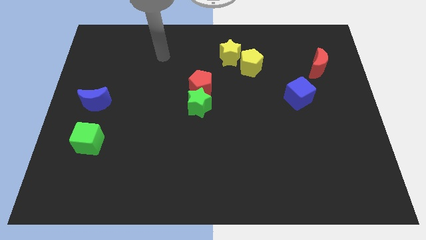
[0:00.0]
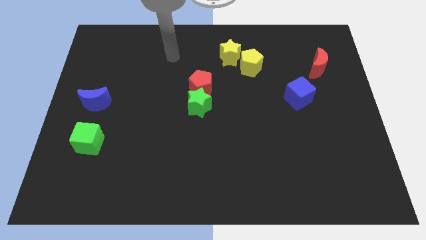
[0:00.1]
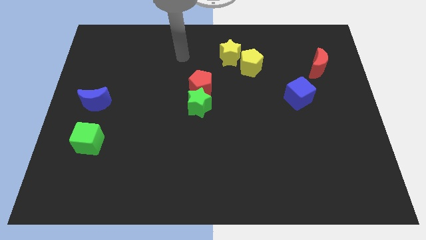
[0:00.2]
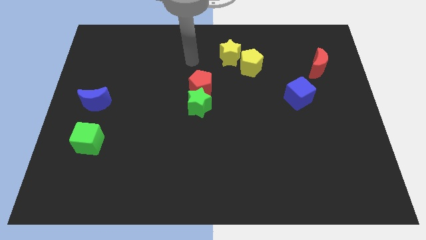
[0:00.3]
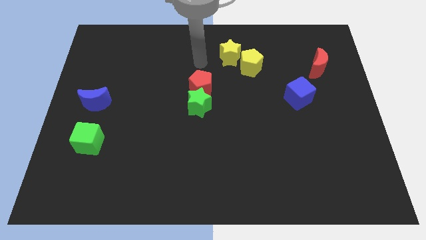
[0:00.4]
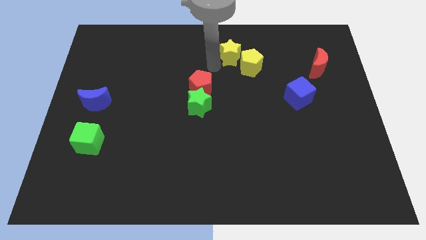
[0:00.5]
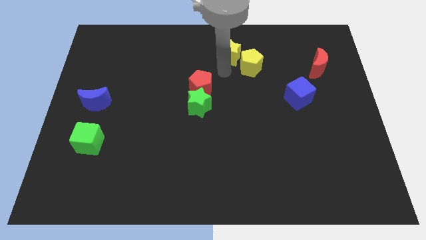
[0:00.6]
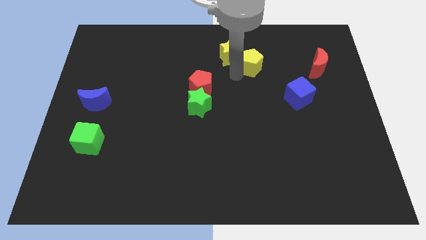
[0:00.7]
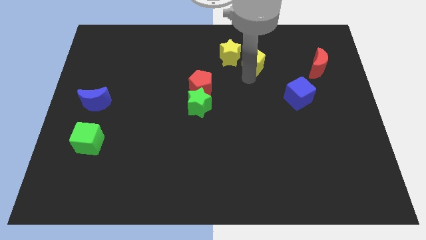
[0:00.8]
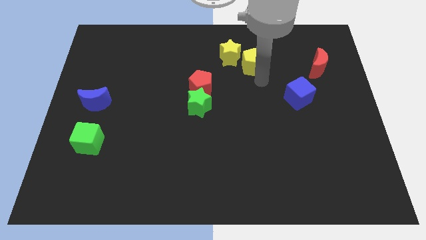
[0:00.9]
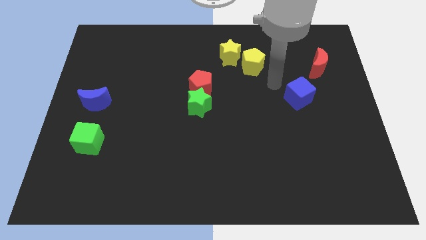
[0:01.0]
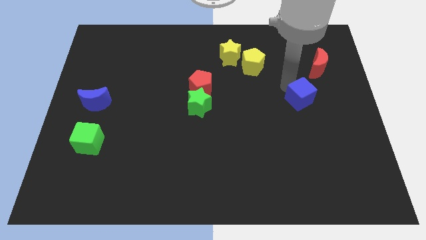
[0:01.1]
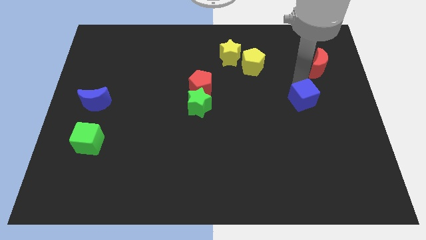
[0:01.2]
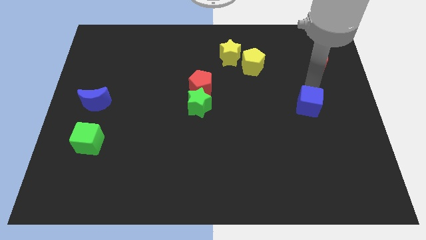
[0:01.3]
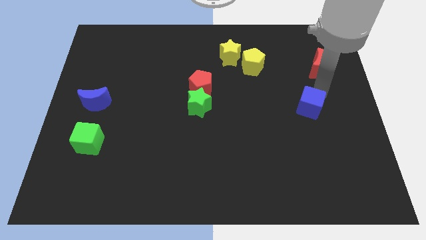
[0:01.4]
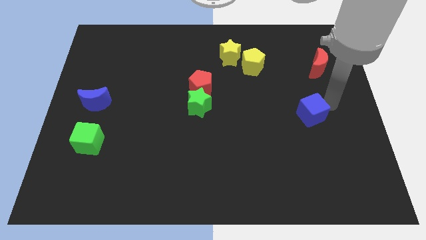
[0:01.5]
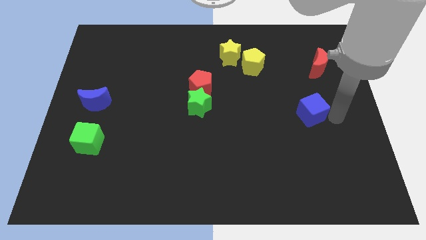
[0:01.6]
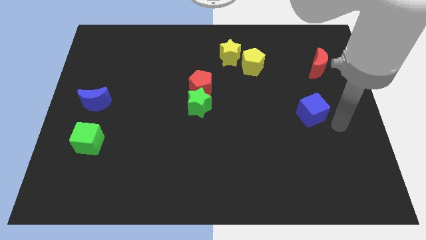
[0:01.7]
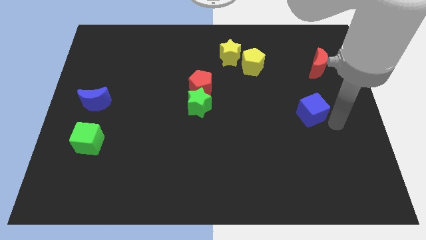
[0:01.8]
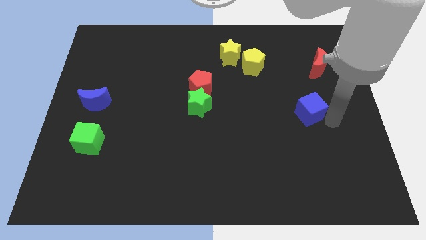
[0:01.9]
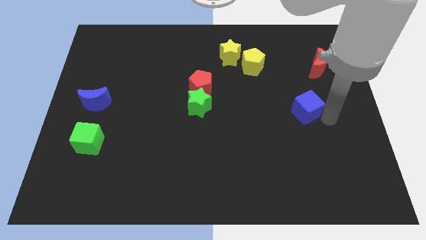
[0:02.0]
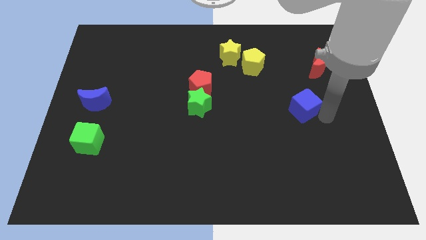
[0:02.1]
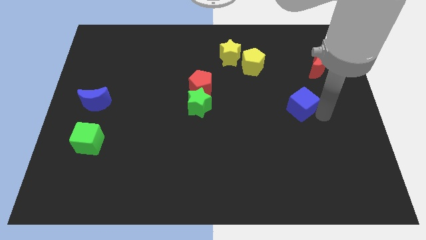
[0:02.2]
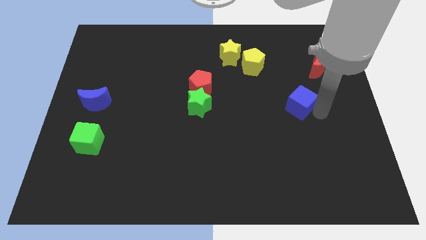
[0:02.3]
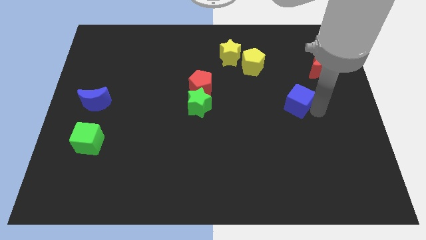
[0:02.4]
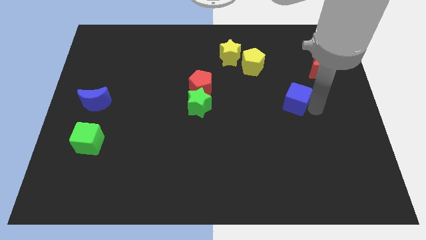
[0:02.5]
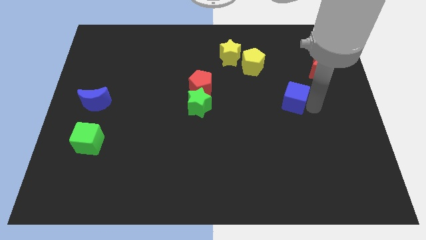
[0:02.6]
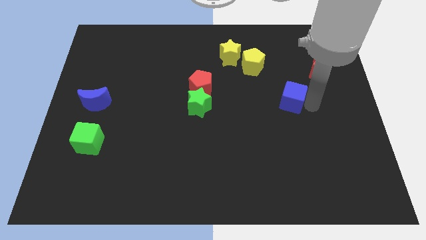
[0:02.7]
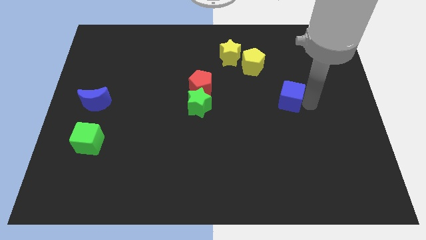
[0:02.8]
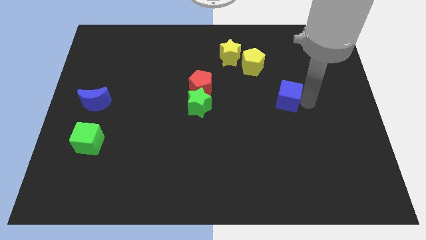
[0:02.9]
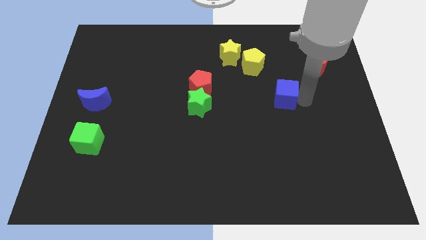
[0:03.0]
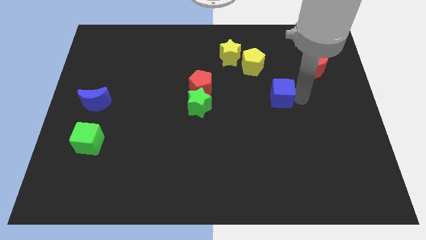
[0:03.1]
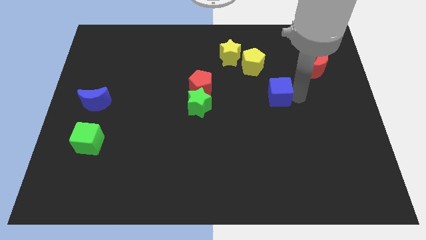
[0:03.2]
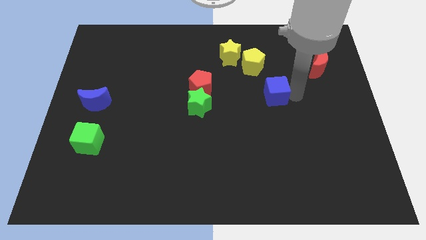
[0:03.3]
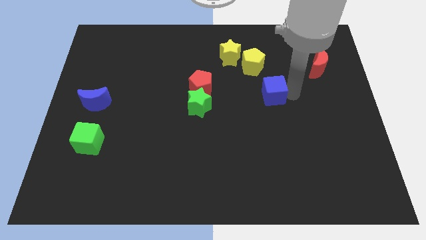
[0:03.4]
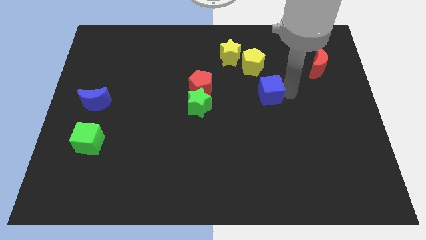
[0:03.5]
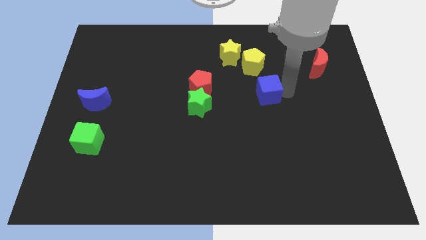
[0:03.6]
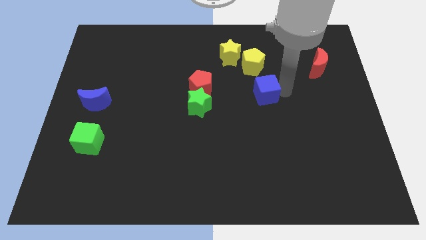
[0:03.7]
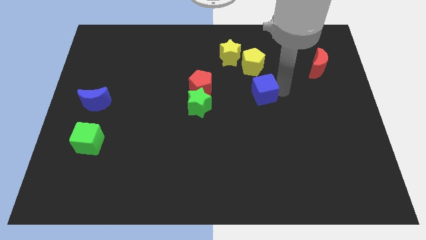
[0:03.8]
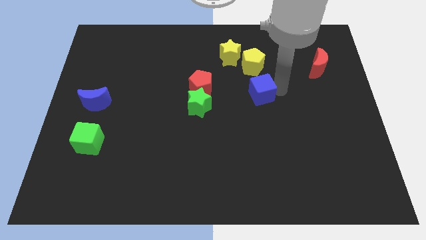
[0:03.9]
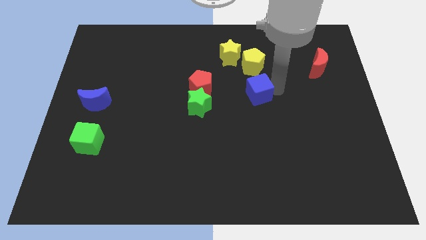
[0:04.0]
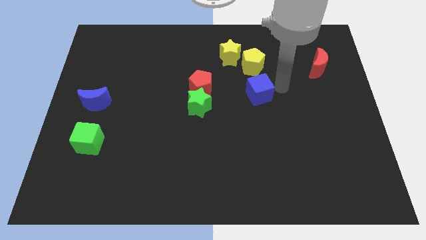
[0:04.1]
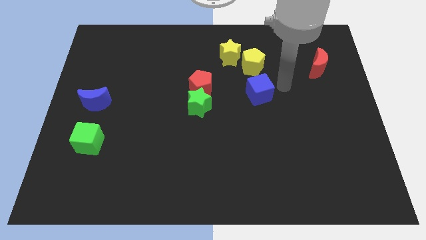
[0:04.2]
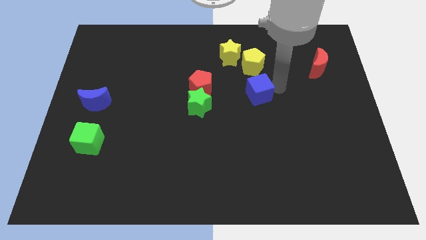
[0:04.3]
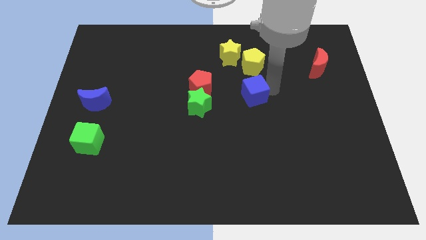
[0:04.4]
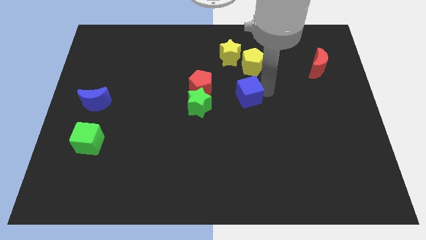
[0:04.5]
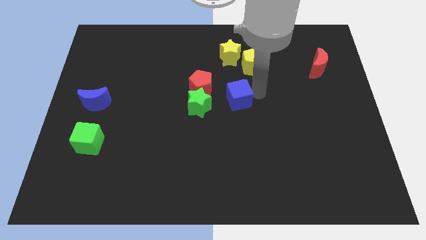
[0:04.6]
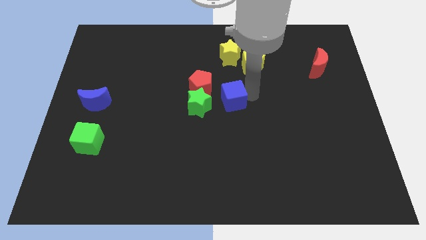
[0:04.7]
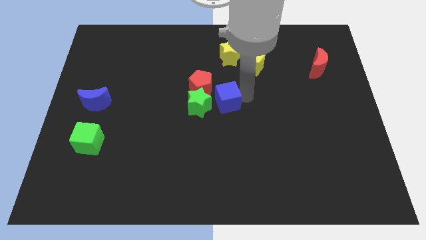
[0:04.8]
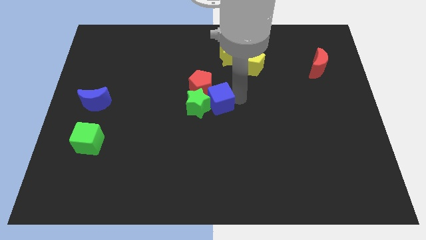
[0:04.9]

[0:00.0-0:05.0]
push the blue cube close to the green star

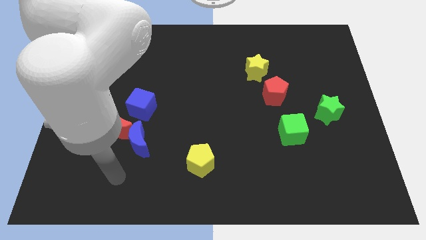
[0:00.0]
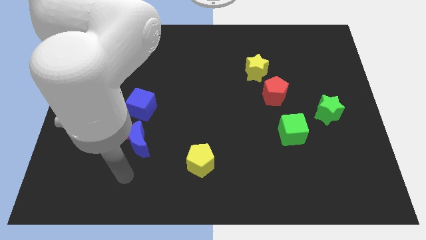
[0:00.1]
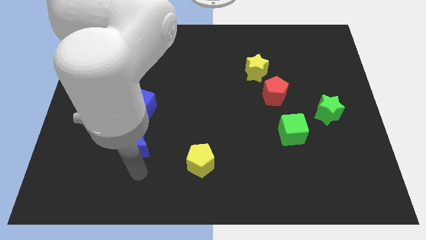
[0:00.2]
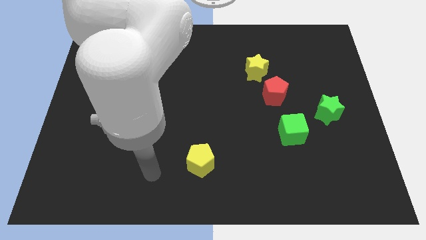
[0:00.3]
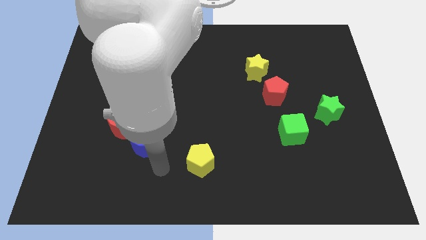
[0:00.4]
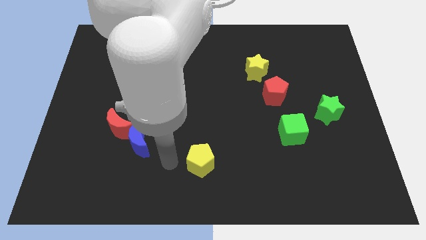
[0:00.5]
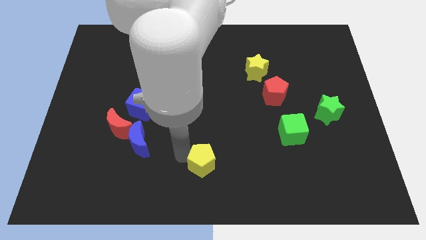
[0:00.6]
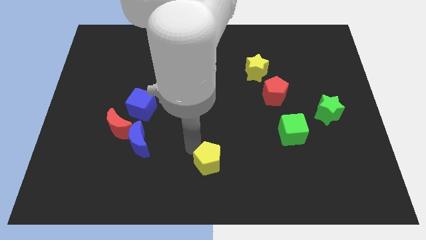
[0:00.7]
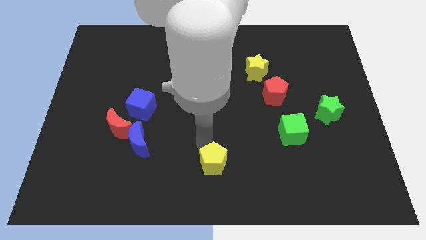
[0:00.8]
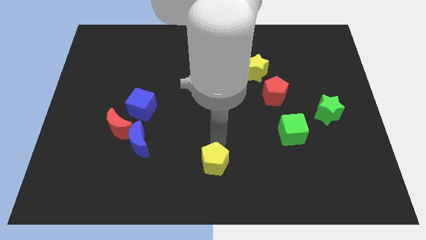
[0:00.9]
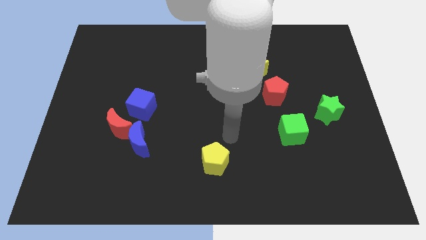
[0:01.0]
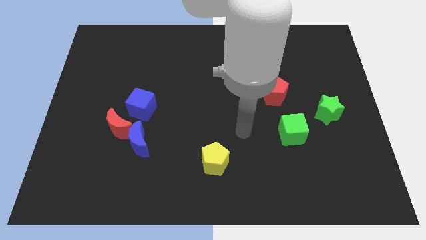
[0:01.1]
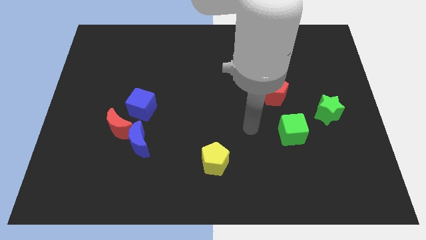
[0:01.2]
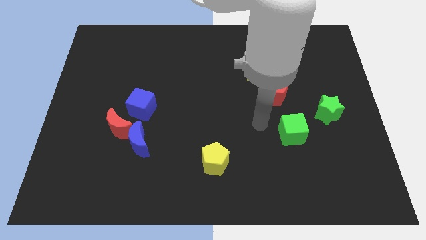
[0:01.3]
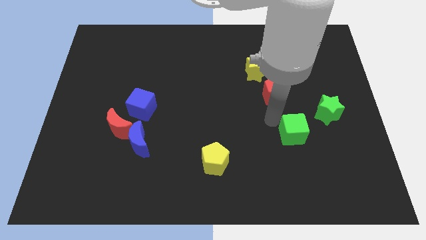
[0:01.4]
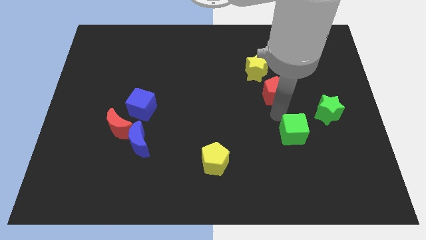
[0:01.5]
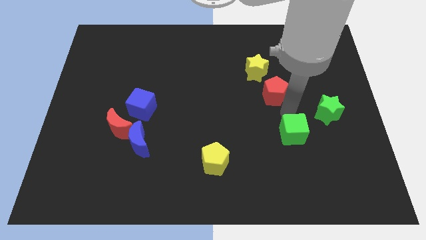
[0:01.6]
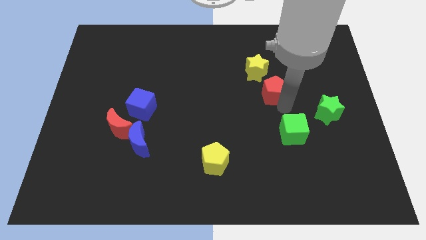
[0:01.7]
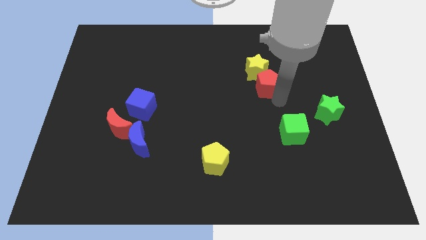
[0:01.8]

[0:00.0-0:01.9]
push the red pentagon towards the yellow star
